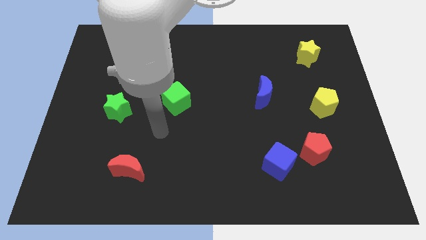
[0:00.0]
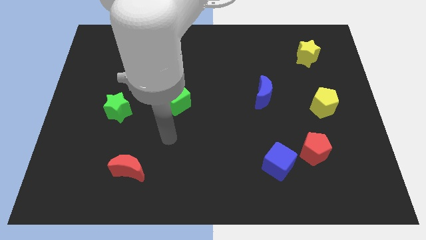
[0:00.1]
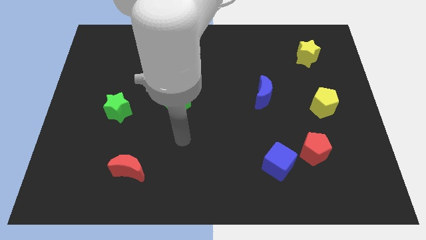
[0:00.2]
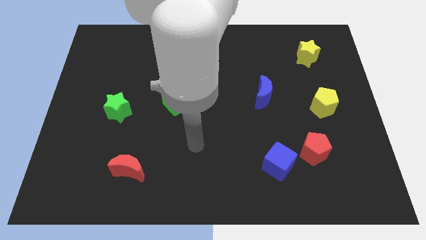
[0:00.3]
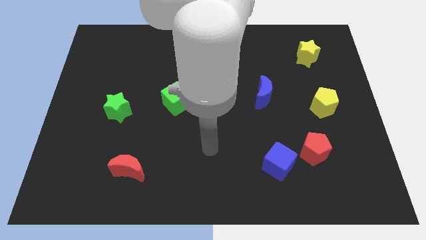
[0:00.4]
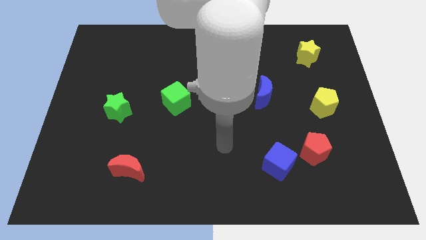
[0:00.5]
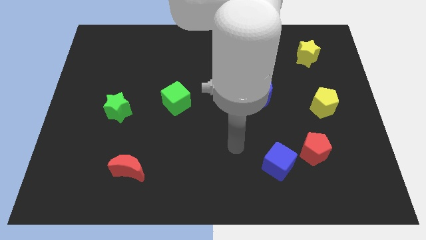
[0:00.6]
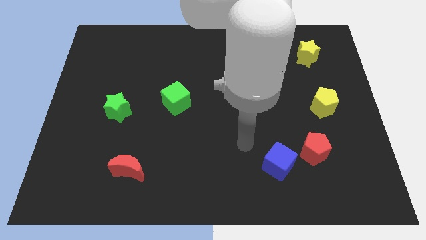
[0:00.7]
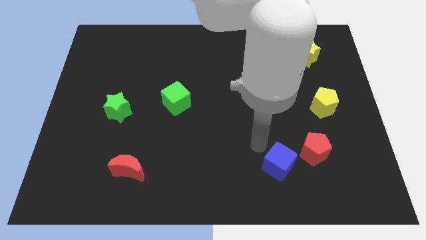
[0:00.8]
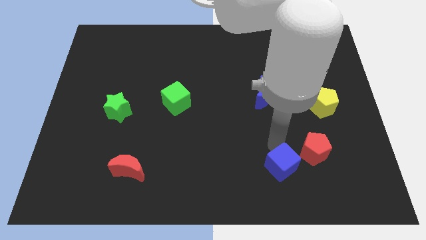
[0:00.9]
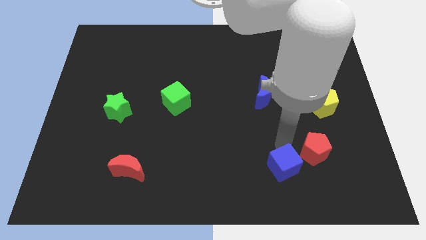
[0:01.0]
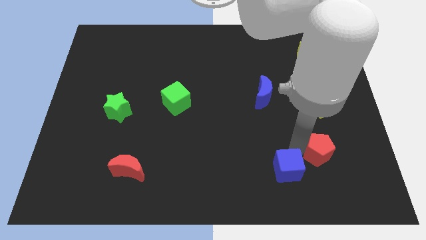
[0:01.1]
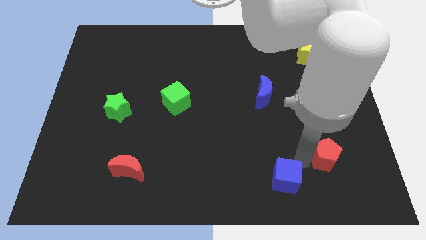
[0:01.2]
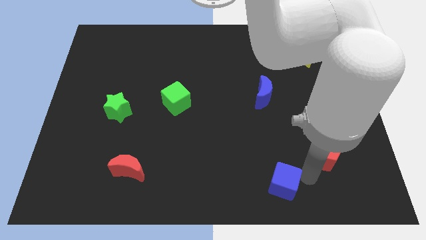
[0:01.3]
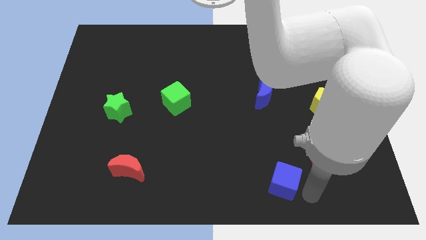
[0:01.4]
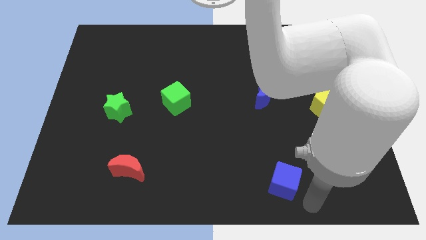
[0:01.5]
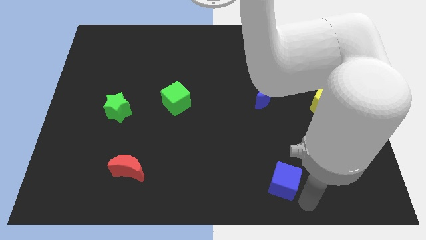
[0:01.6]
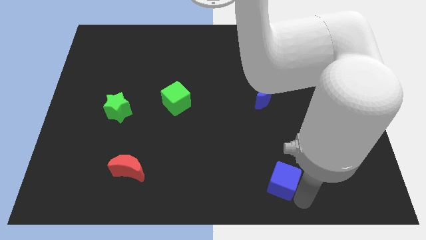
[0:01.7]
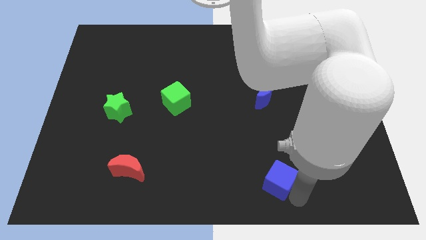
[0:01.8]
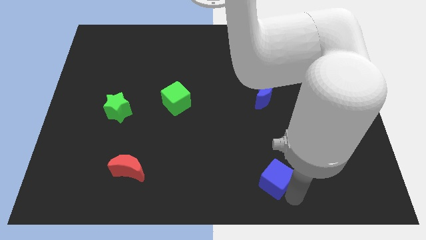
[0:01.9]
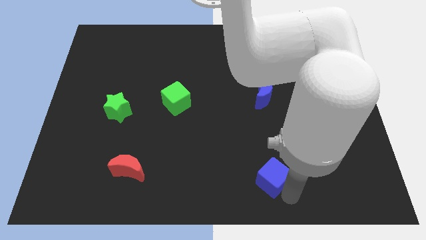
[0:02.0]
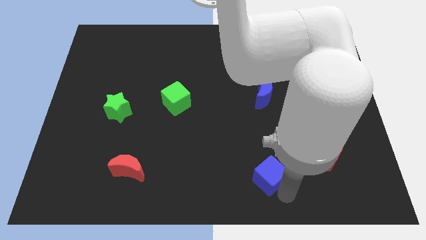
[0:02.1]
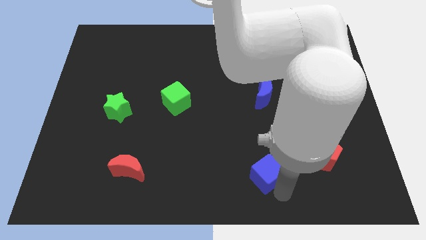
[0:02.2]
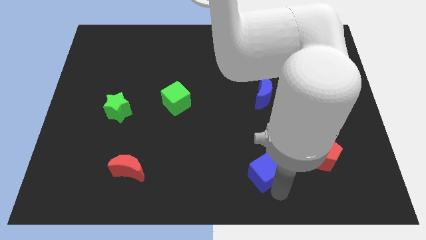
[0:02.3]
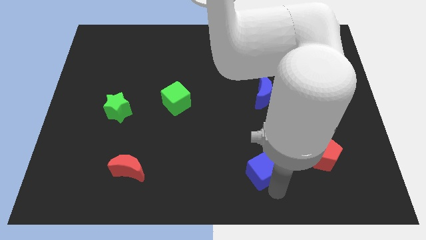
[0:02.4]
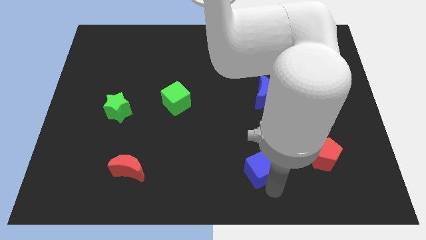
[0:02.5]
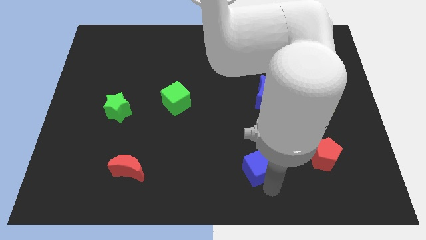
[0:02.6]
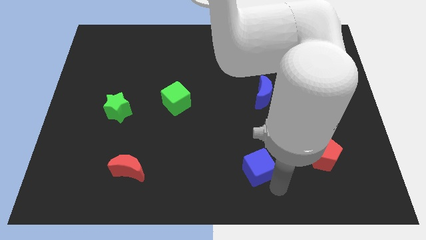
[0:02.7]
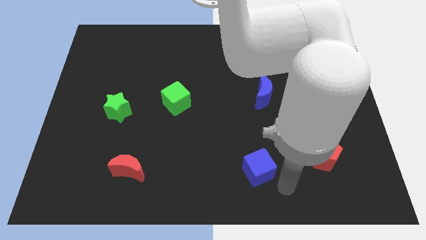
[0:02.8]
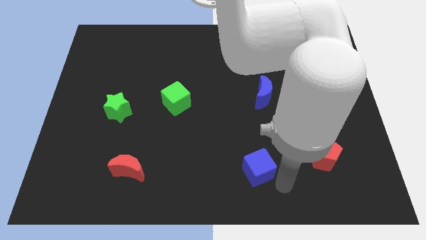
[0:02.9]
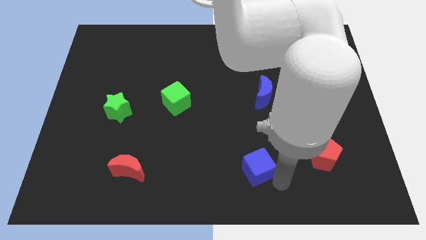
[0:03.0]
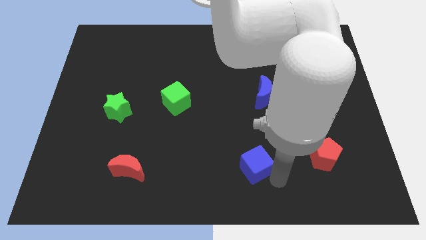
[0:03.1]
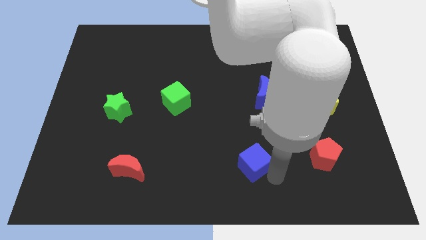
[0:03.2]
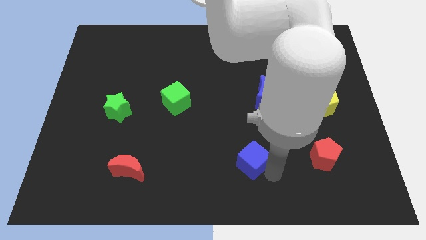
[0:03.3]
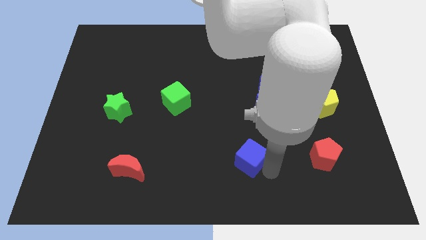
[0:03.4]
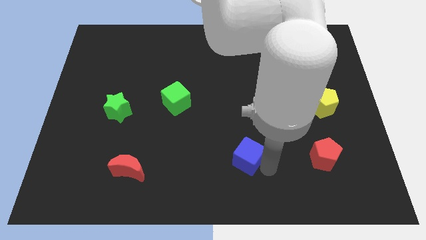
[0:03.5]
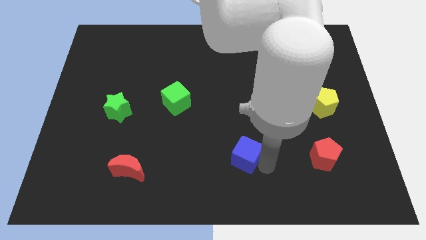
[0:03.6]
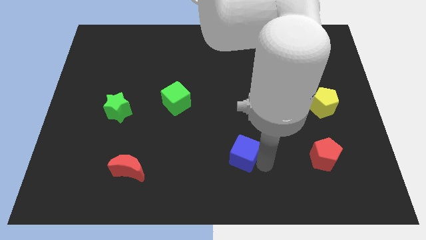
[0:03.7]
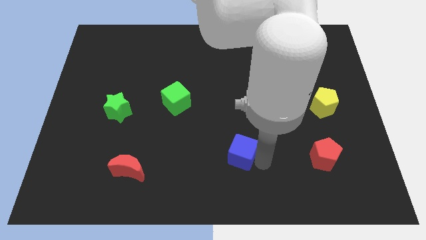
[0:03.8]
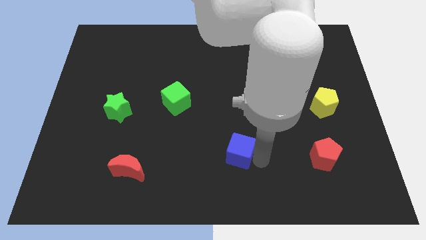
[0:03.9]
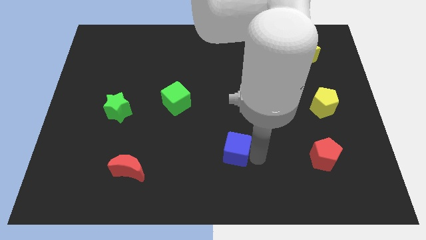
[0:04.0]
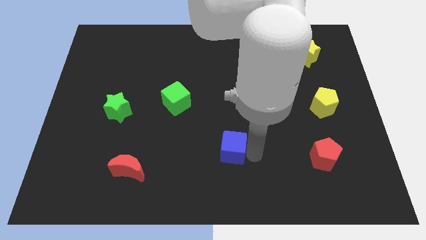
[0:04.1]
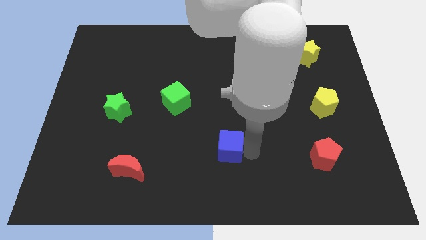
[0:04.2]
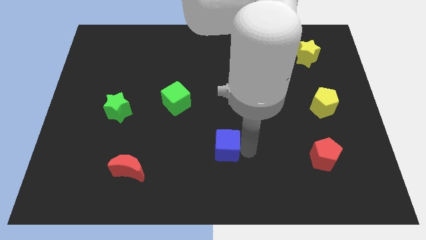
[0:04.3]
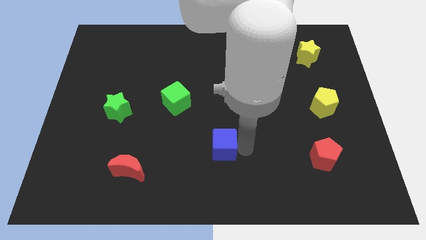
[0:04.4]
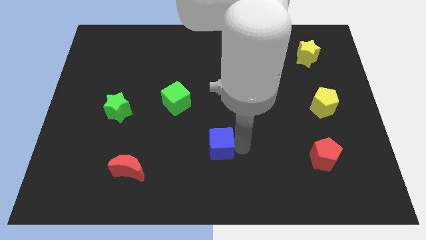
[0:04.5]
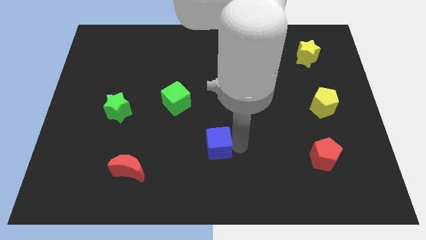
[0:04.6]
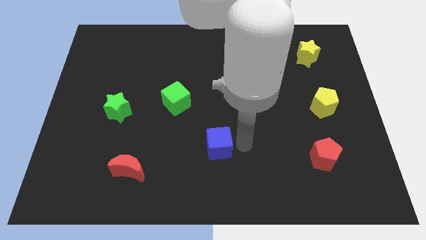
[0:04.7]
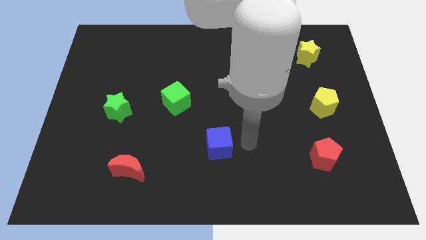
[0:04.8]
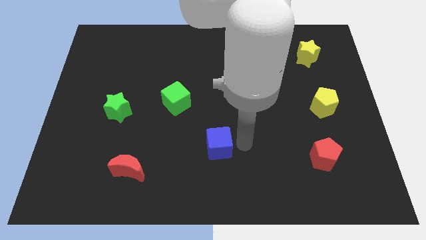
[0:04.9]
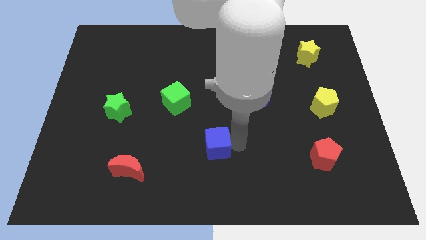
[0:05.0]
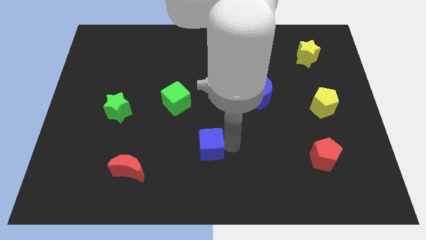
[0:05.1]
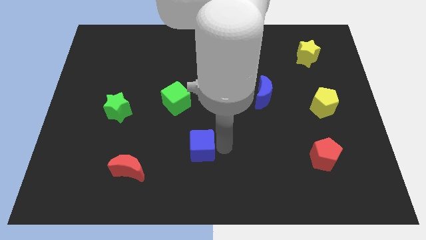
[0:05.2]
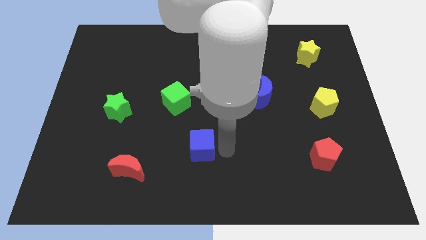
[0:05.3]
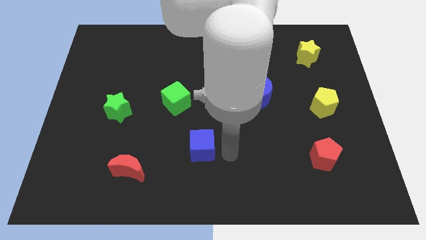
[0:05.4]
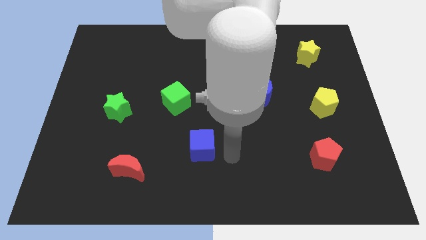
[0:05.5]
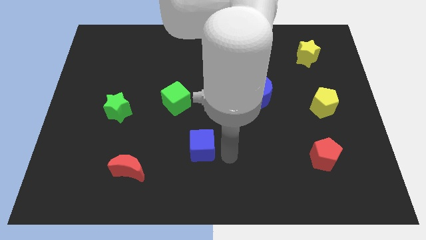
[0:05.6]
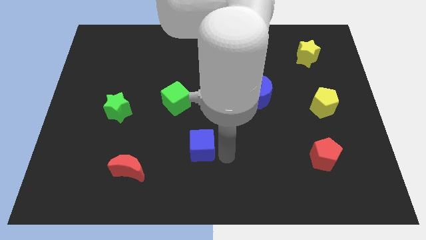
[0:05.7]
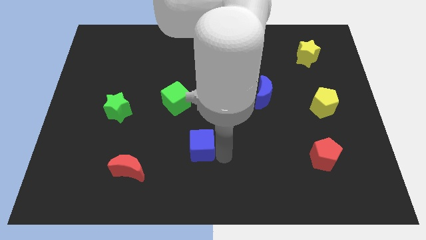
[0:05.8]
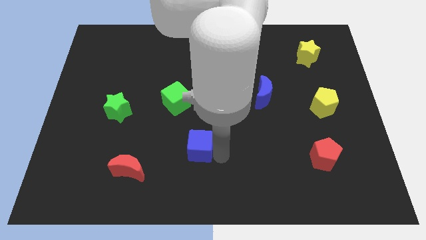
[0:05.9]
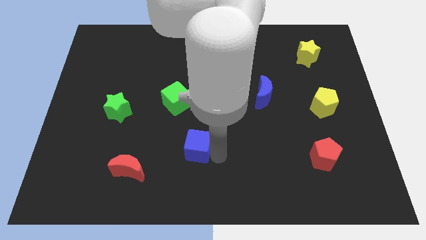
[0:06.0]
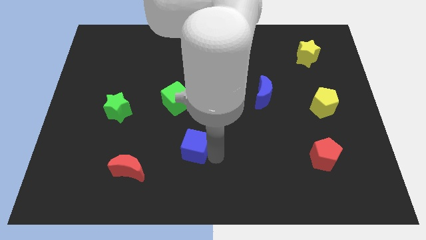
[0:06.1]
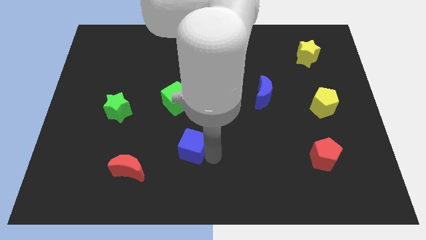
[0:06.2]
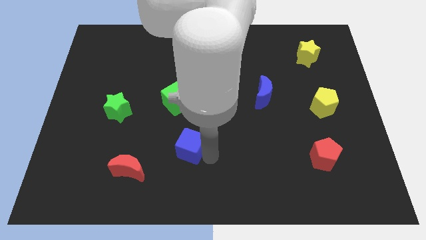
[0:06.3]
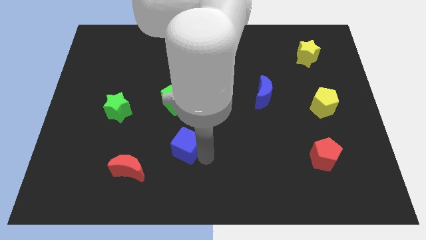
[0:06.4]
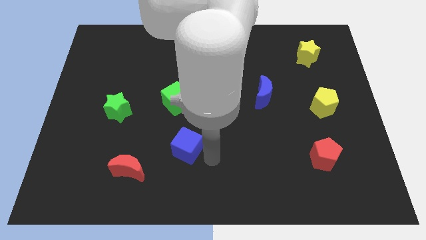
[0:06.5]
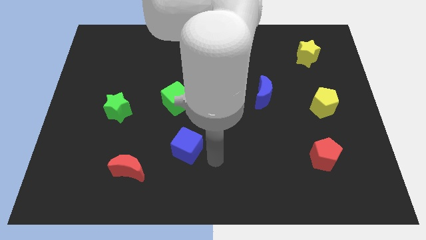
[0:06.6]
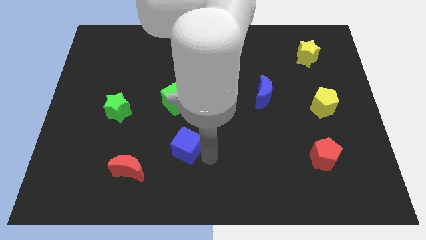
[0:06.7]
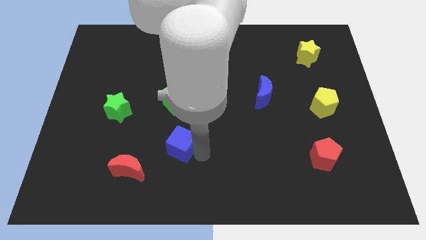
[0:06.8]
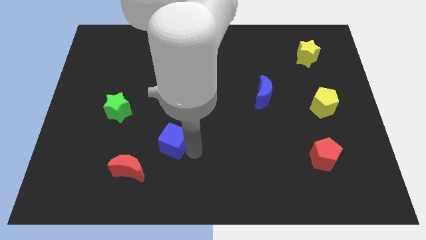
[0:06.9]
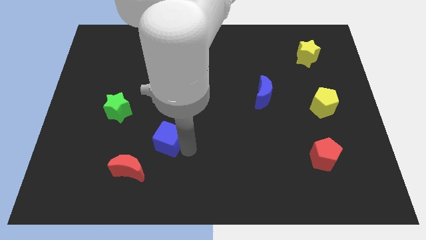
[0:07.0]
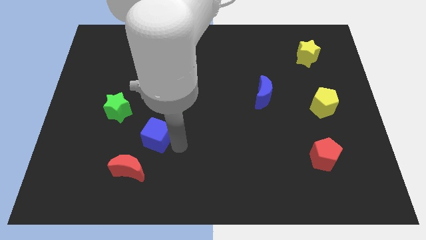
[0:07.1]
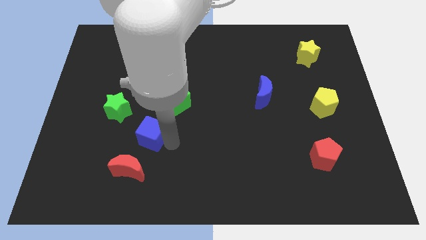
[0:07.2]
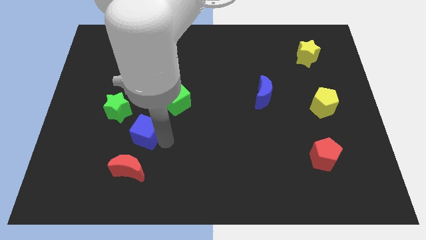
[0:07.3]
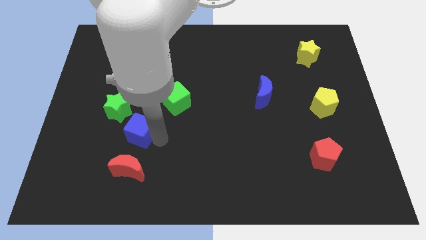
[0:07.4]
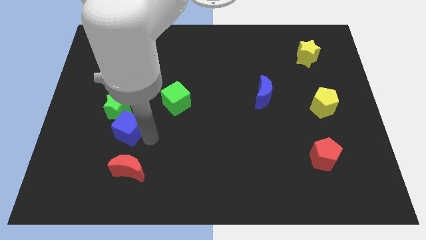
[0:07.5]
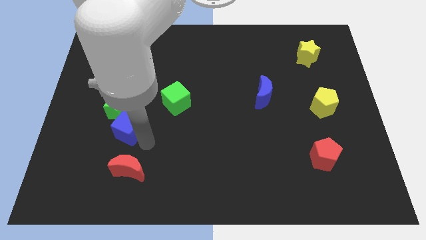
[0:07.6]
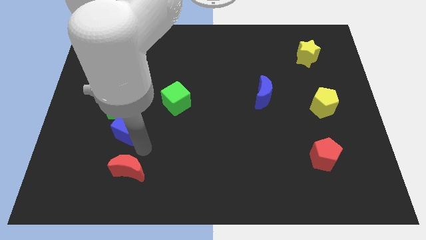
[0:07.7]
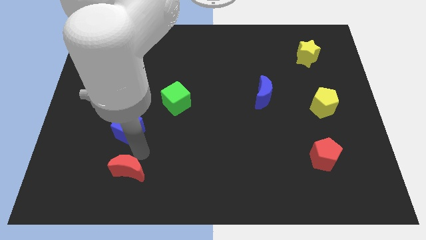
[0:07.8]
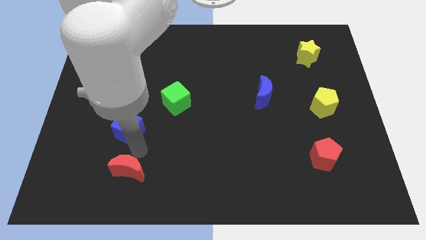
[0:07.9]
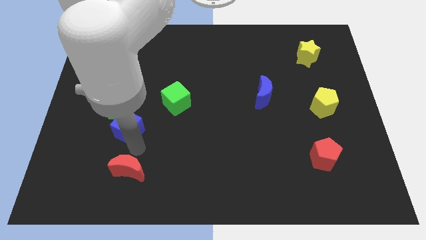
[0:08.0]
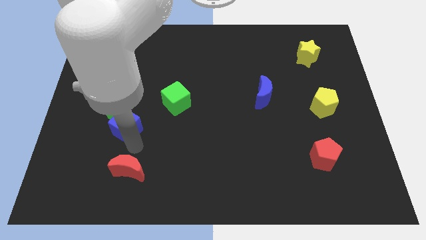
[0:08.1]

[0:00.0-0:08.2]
slide the blue cube next to the green star
